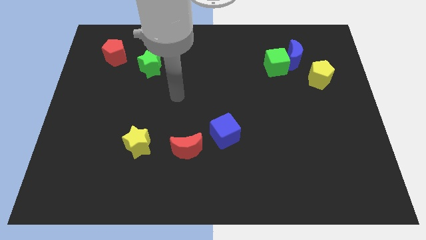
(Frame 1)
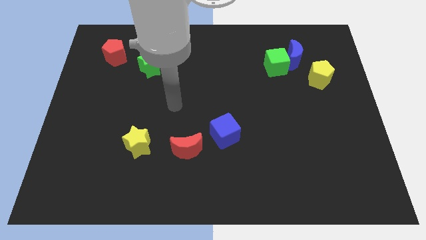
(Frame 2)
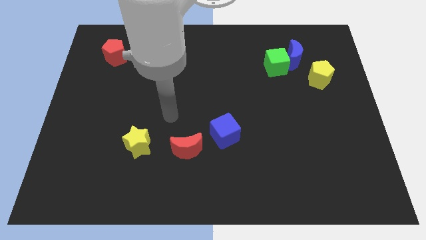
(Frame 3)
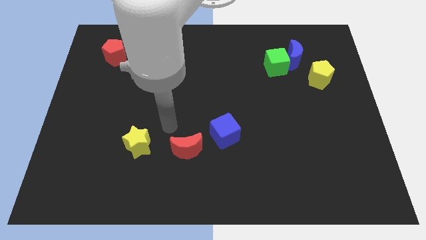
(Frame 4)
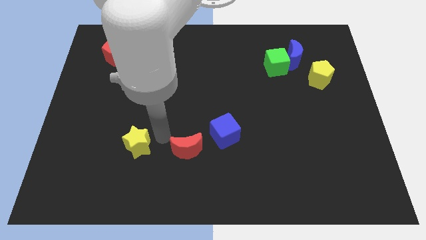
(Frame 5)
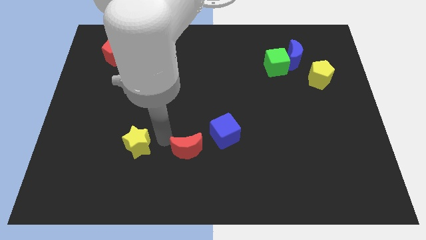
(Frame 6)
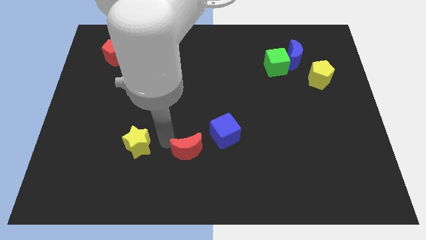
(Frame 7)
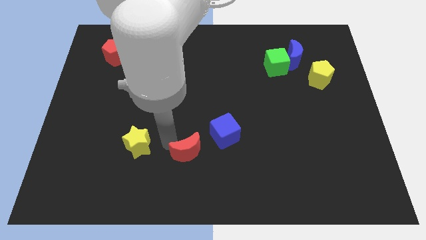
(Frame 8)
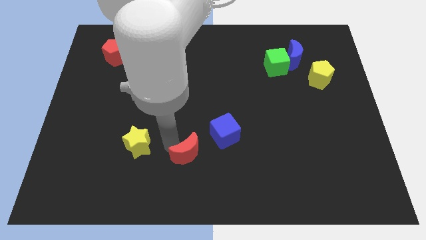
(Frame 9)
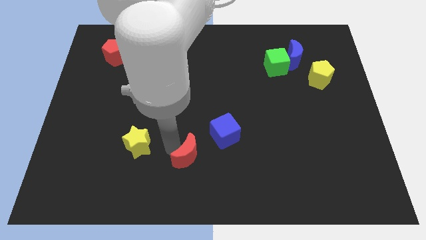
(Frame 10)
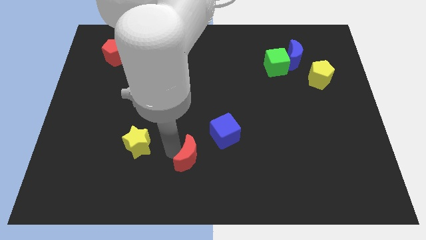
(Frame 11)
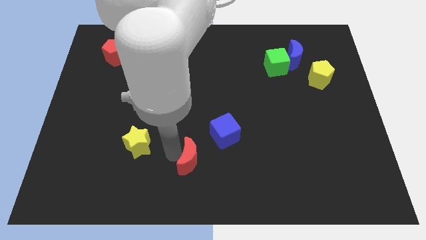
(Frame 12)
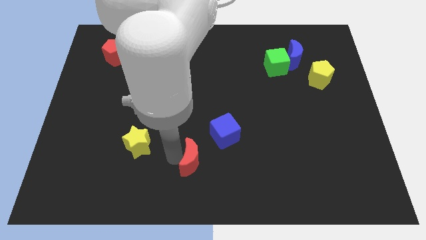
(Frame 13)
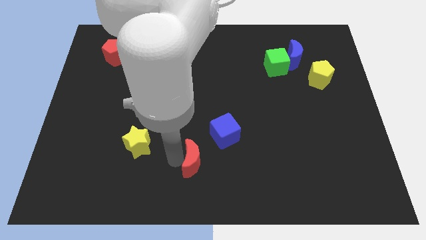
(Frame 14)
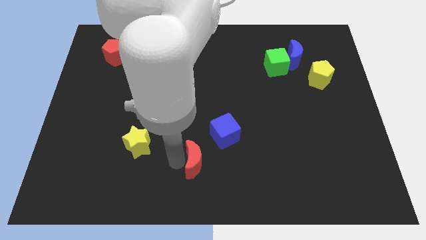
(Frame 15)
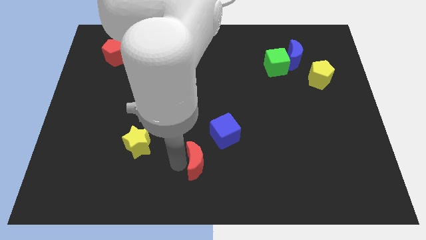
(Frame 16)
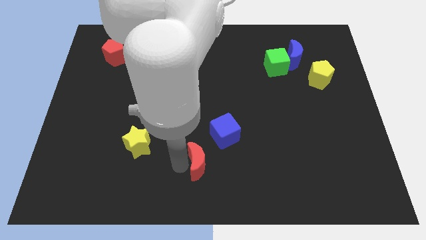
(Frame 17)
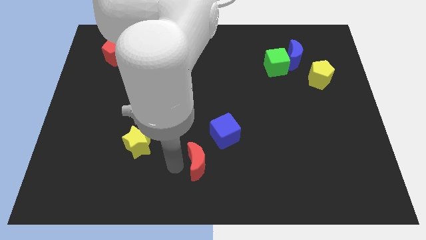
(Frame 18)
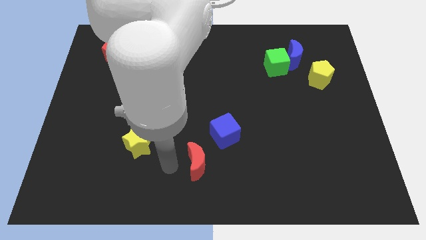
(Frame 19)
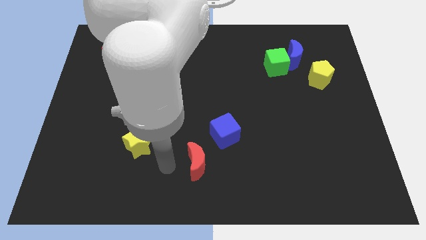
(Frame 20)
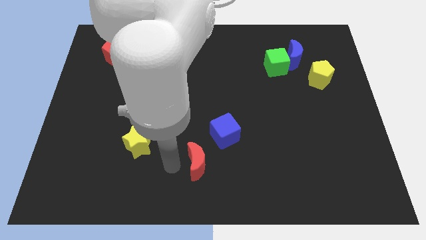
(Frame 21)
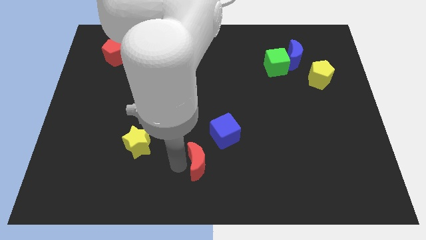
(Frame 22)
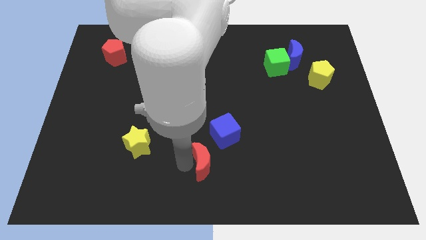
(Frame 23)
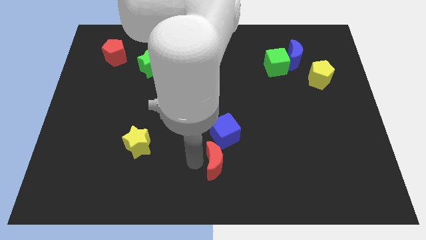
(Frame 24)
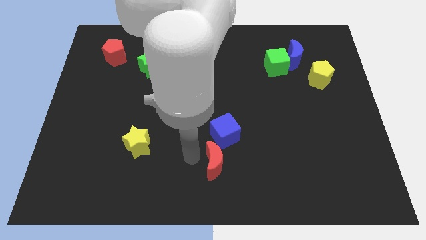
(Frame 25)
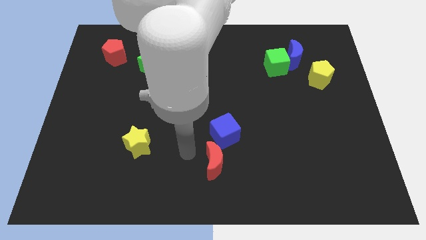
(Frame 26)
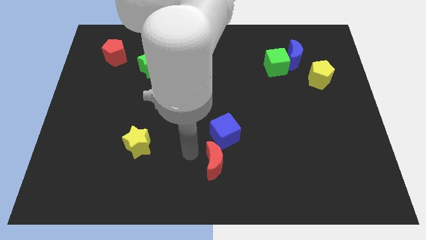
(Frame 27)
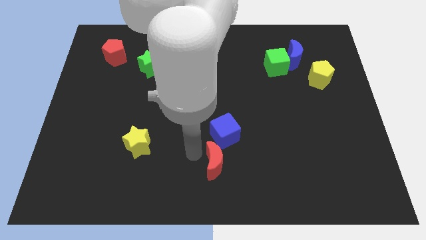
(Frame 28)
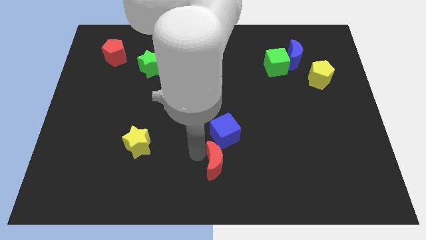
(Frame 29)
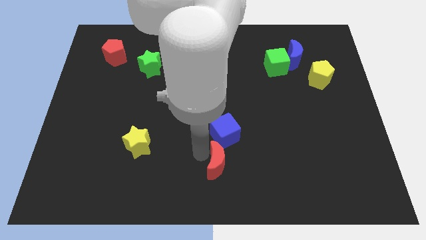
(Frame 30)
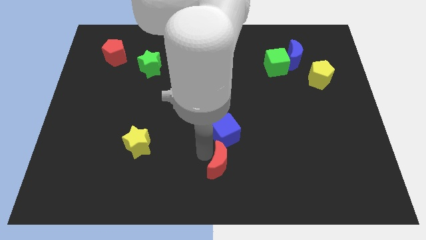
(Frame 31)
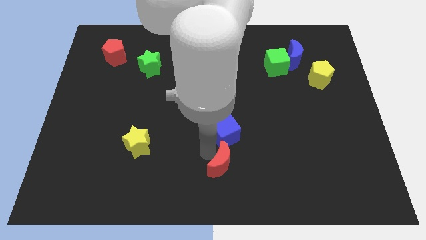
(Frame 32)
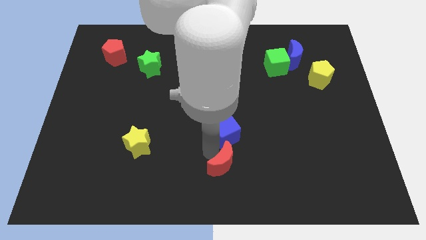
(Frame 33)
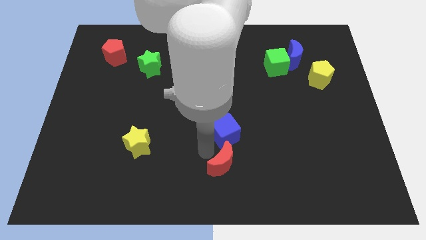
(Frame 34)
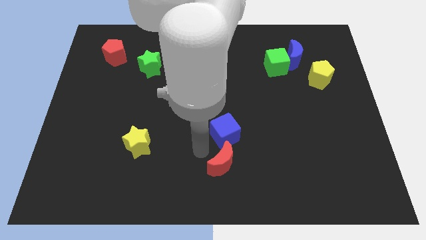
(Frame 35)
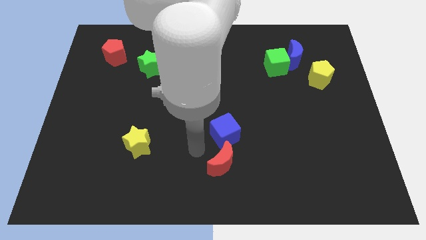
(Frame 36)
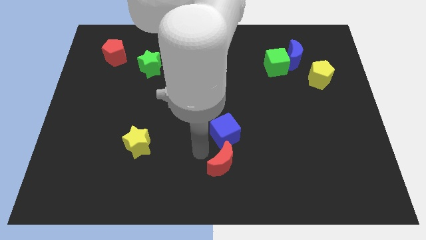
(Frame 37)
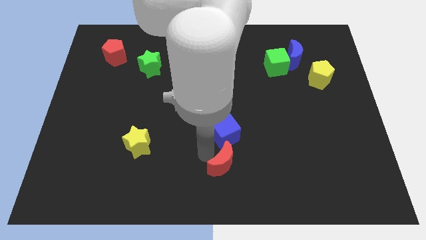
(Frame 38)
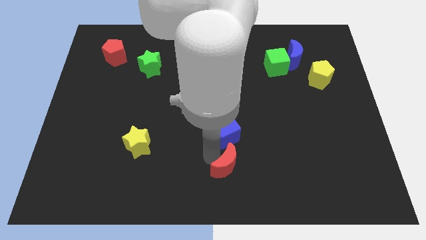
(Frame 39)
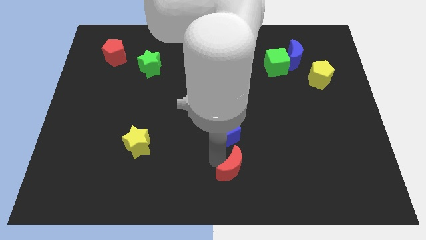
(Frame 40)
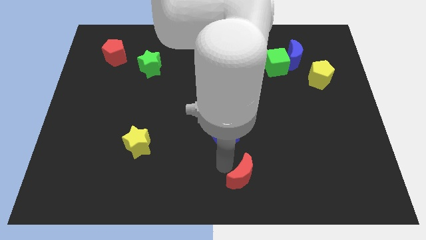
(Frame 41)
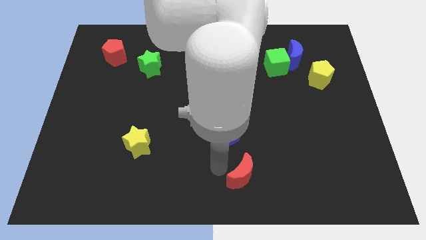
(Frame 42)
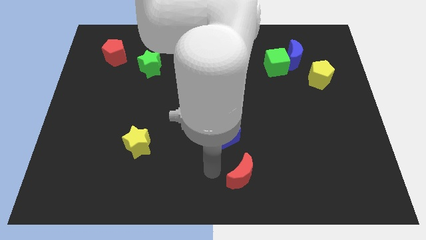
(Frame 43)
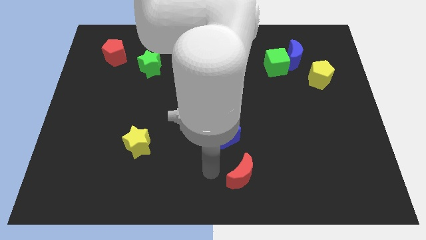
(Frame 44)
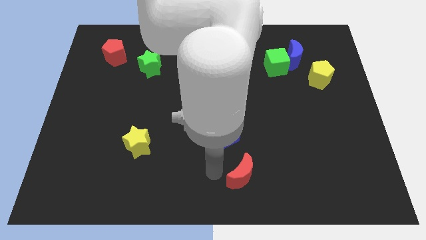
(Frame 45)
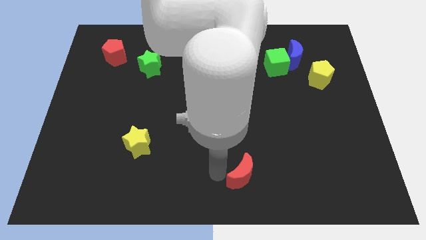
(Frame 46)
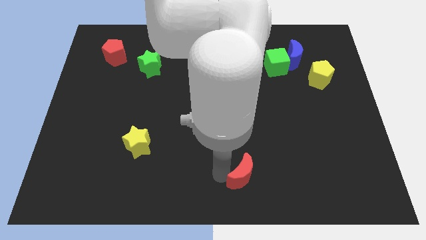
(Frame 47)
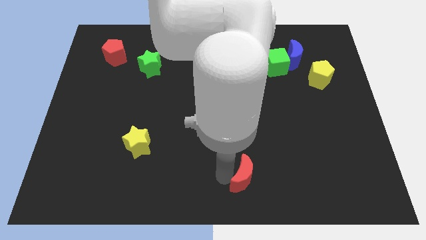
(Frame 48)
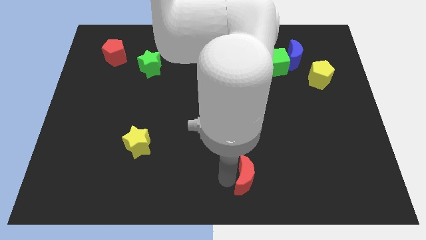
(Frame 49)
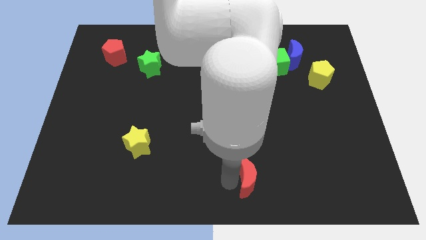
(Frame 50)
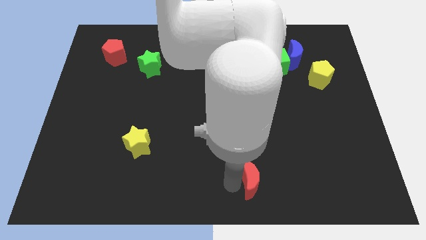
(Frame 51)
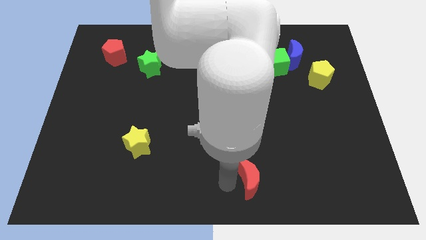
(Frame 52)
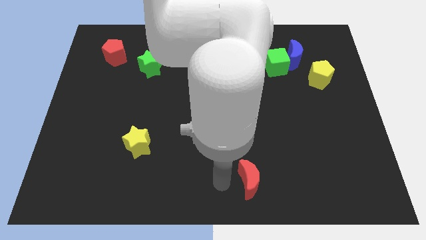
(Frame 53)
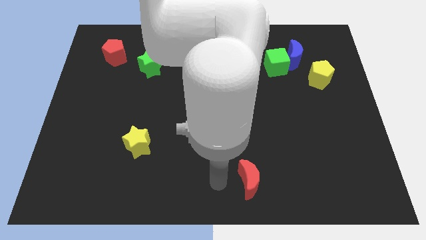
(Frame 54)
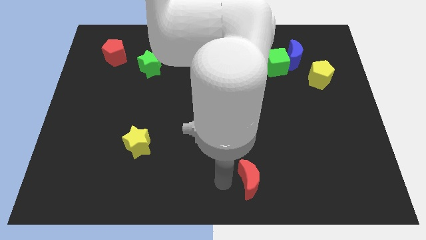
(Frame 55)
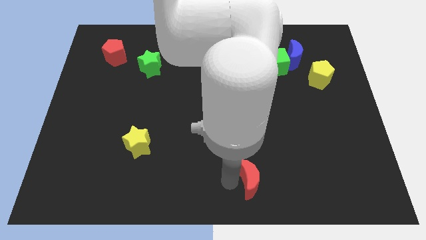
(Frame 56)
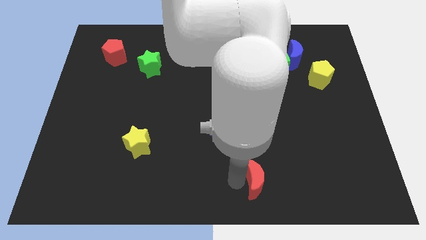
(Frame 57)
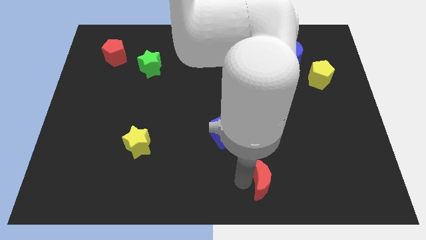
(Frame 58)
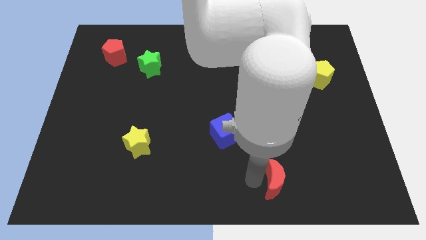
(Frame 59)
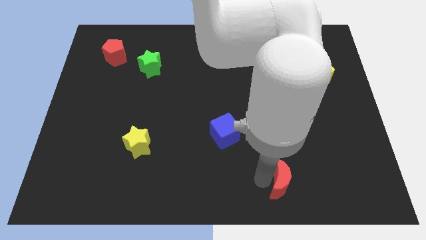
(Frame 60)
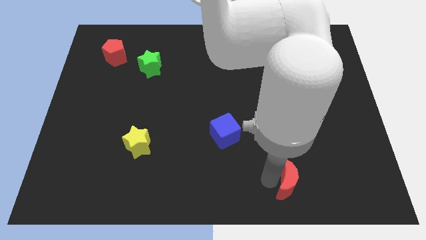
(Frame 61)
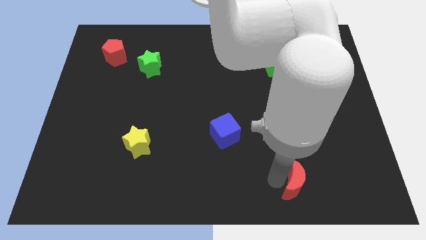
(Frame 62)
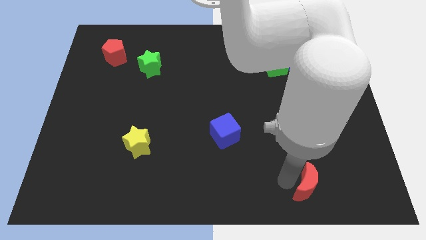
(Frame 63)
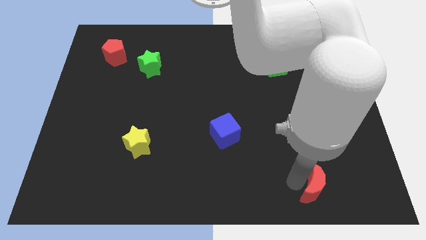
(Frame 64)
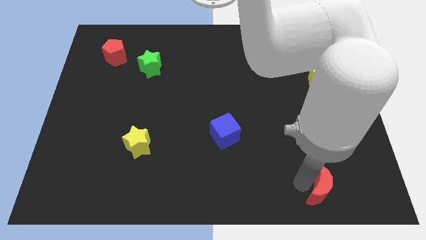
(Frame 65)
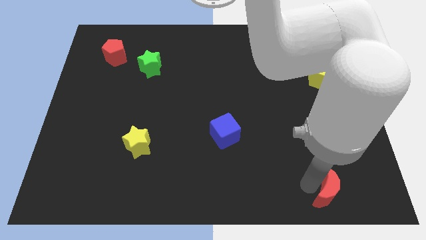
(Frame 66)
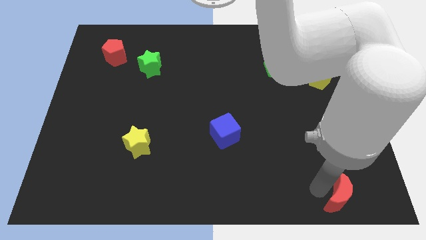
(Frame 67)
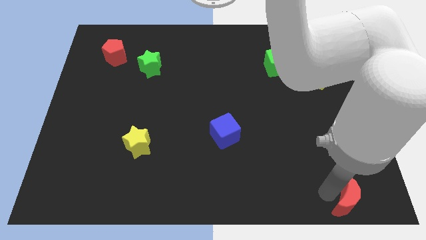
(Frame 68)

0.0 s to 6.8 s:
push the red moon to the bottom right

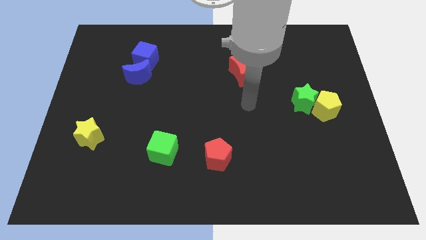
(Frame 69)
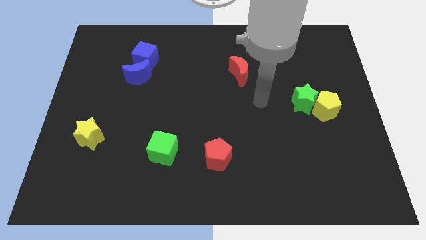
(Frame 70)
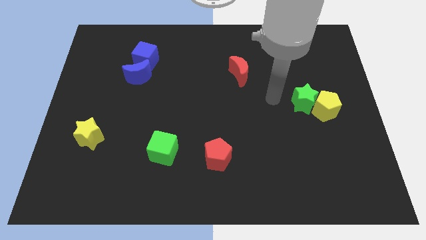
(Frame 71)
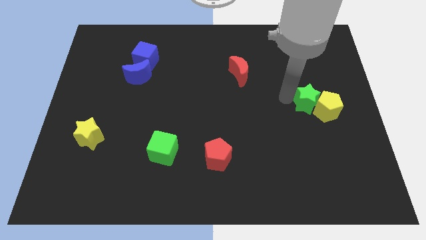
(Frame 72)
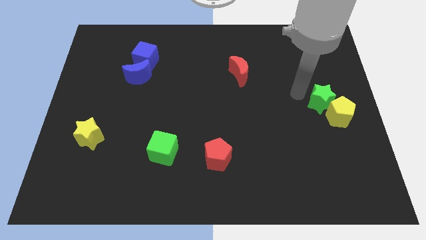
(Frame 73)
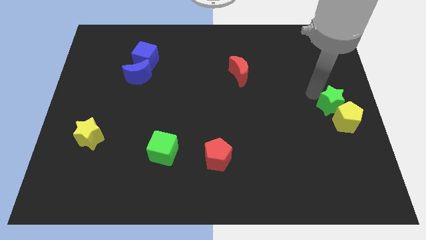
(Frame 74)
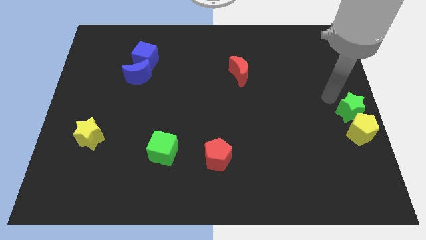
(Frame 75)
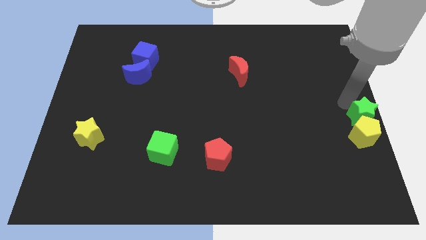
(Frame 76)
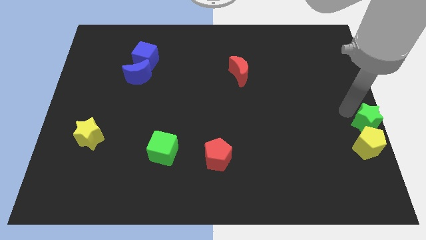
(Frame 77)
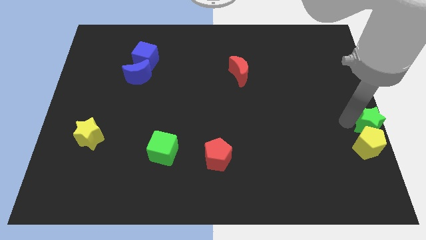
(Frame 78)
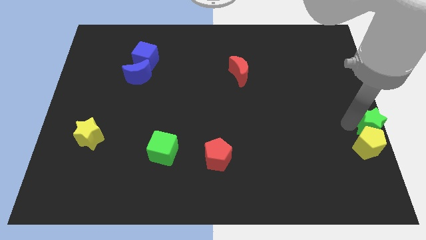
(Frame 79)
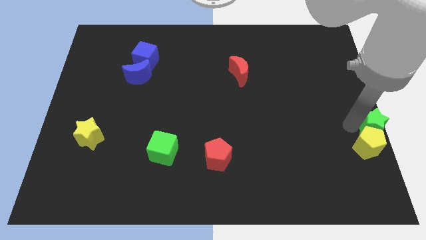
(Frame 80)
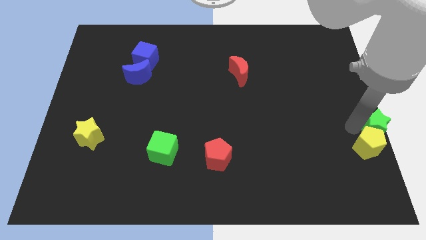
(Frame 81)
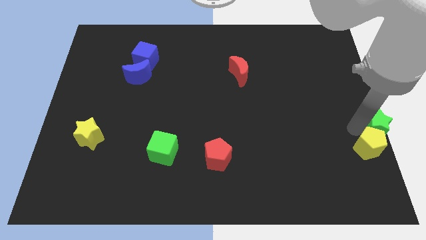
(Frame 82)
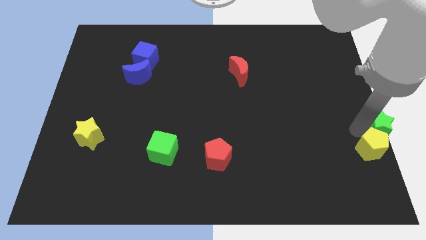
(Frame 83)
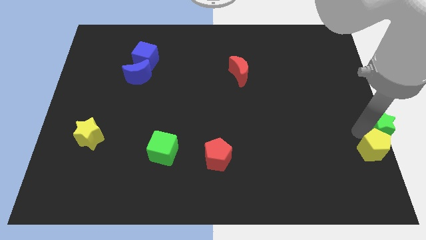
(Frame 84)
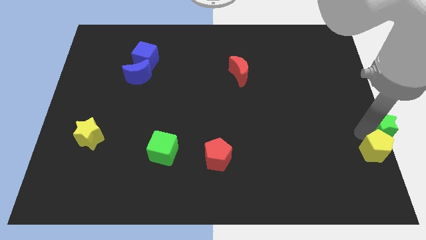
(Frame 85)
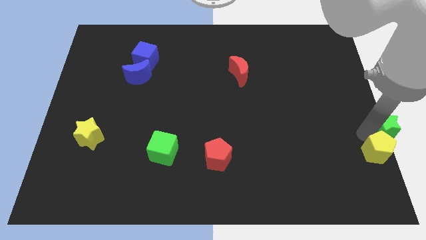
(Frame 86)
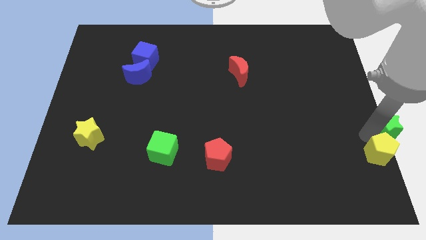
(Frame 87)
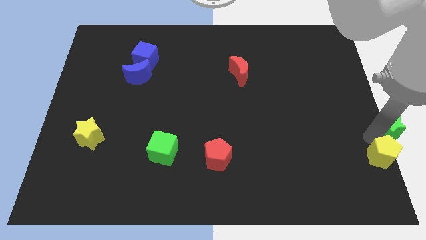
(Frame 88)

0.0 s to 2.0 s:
slide the yellow pentagon to the bottom right
